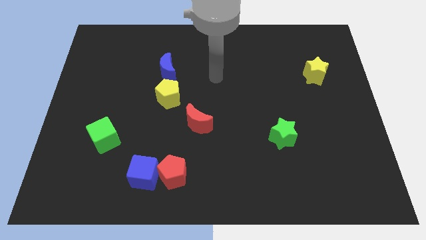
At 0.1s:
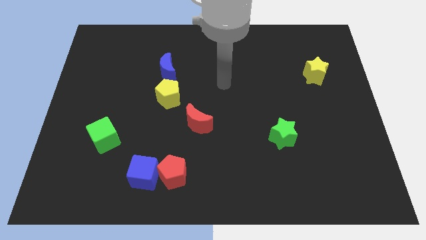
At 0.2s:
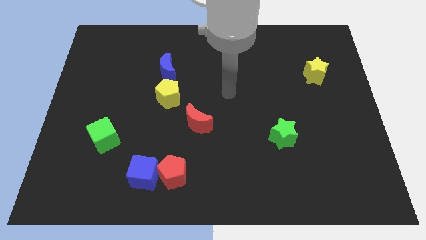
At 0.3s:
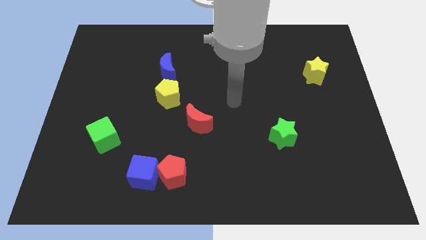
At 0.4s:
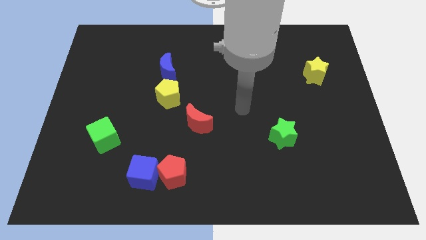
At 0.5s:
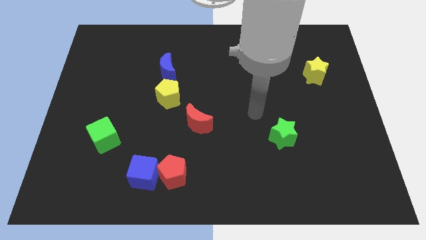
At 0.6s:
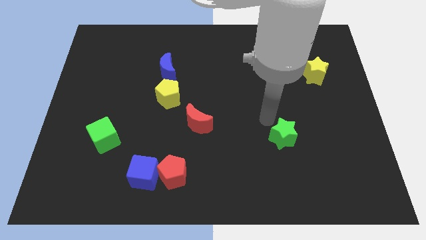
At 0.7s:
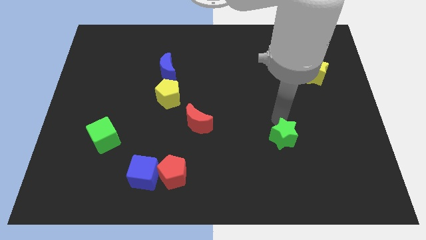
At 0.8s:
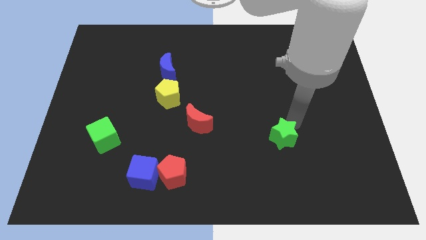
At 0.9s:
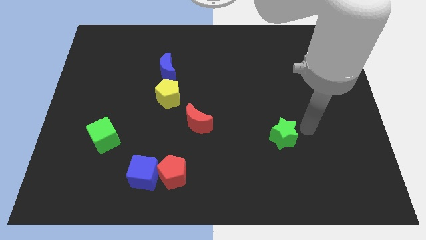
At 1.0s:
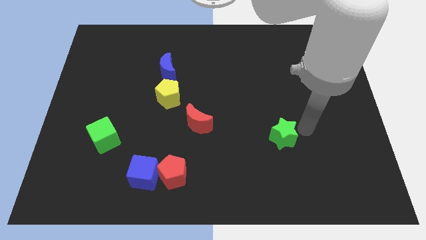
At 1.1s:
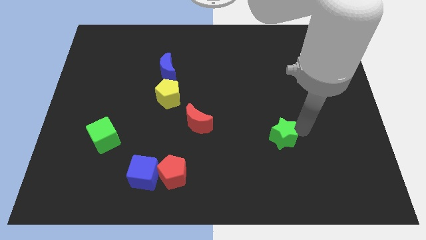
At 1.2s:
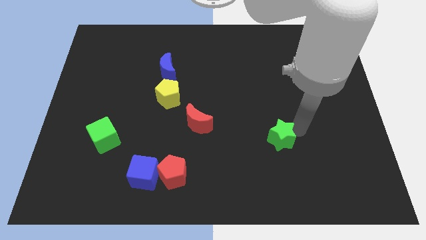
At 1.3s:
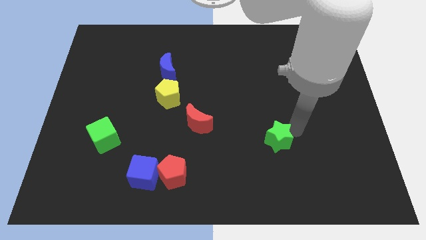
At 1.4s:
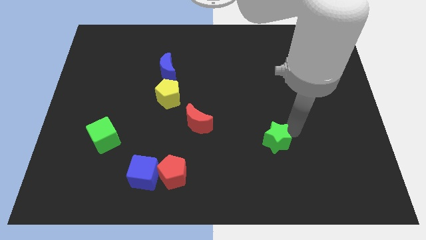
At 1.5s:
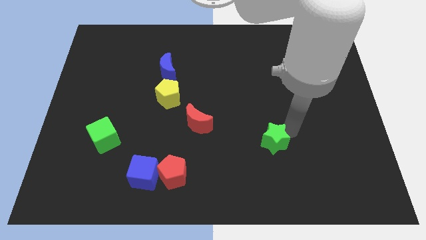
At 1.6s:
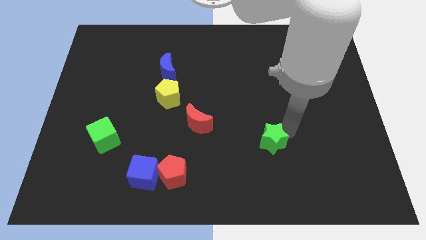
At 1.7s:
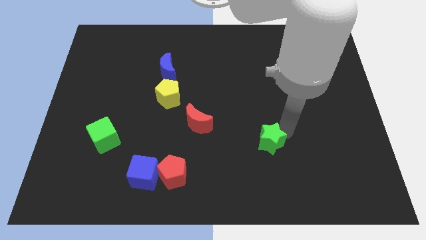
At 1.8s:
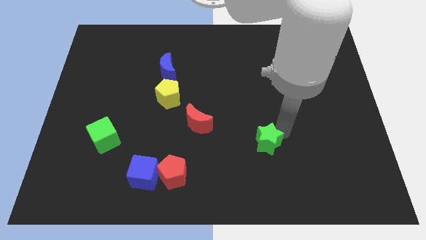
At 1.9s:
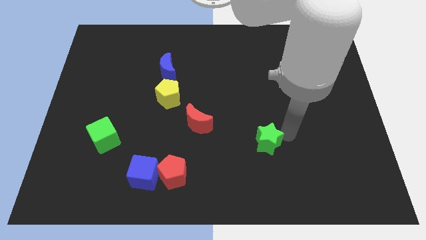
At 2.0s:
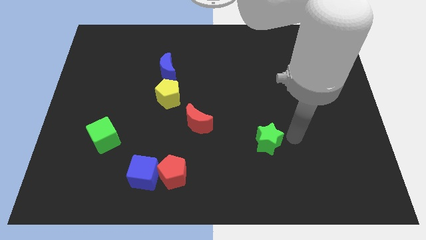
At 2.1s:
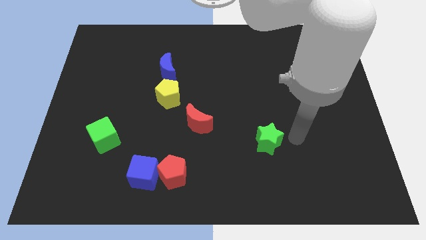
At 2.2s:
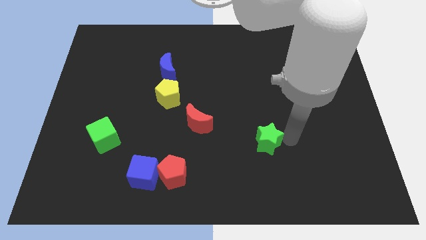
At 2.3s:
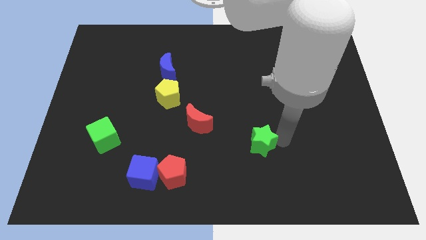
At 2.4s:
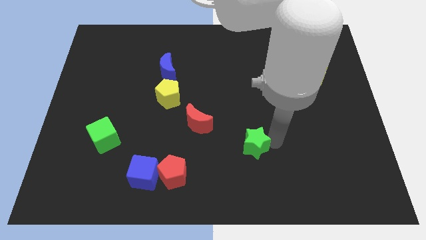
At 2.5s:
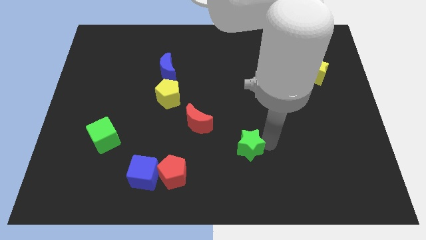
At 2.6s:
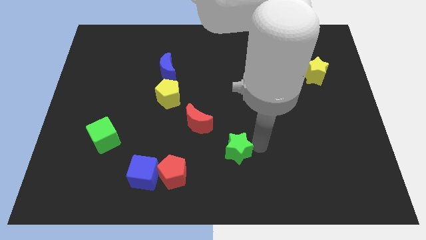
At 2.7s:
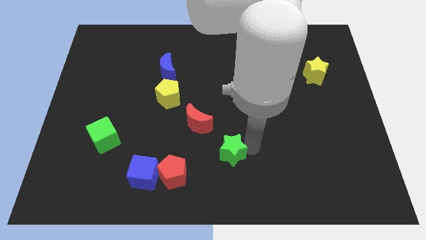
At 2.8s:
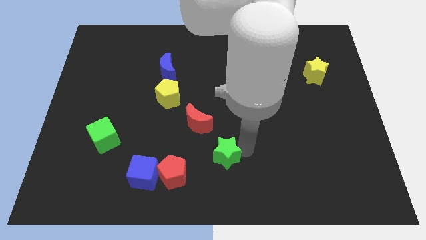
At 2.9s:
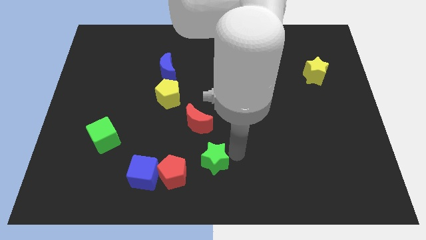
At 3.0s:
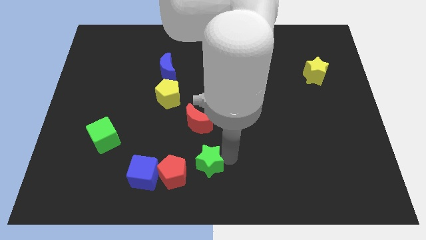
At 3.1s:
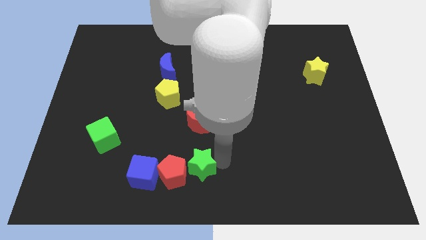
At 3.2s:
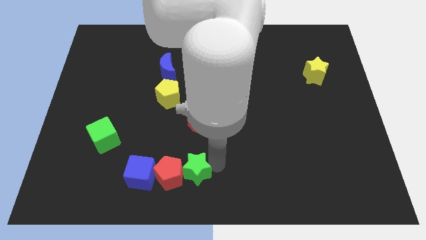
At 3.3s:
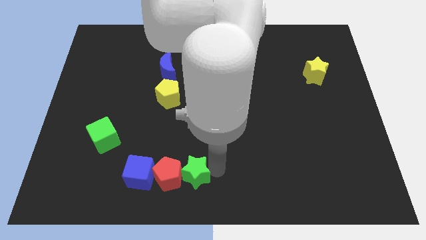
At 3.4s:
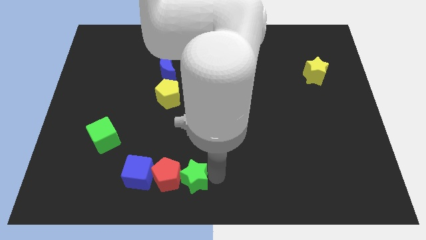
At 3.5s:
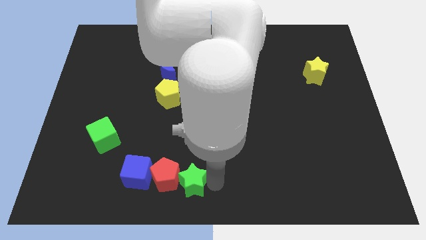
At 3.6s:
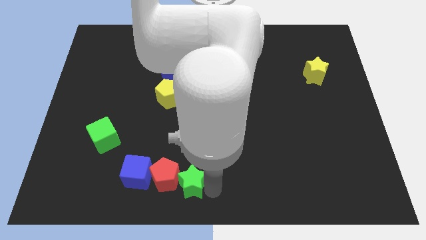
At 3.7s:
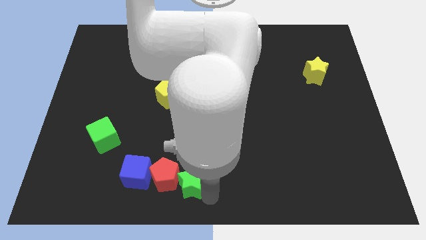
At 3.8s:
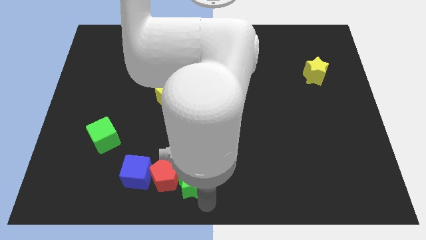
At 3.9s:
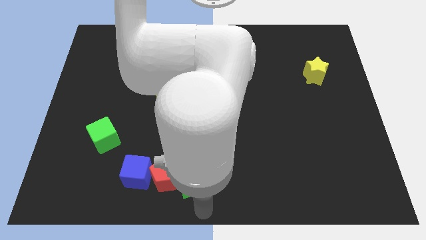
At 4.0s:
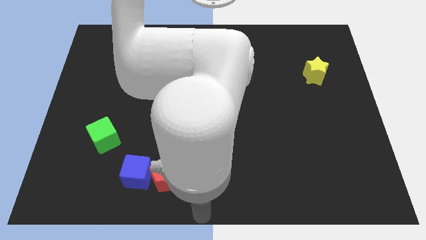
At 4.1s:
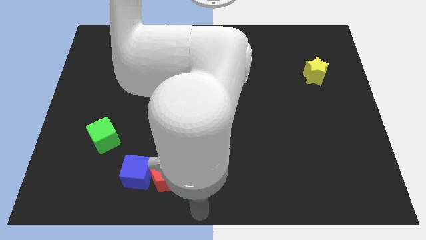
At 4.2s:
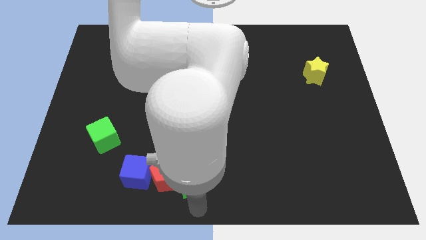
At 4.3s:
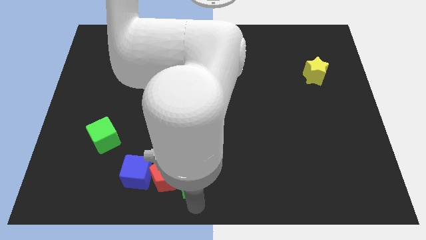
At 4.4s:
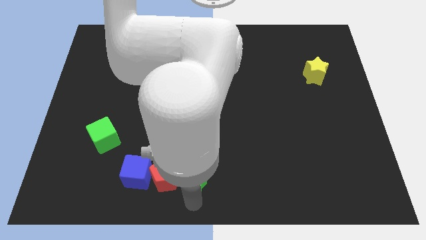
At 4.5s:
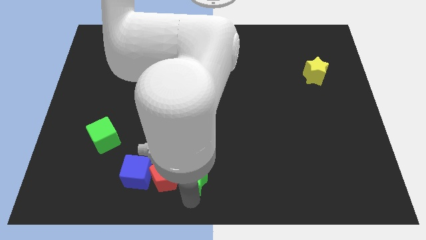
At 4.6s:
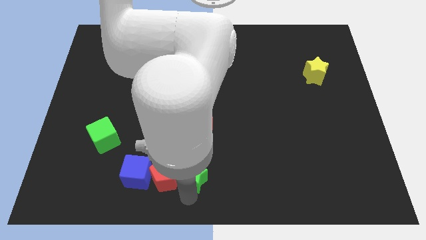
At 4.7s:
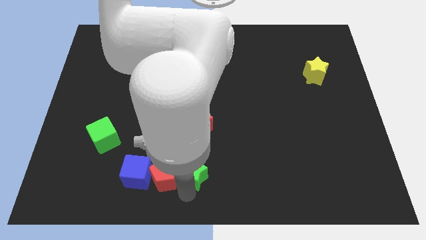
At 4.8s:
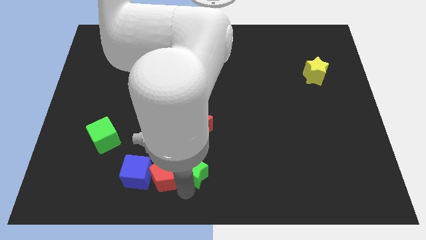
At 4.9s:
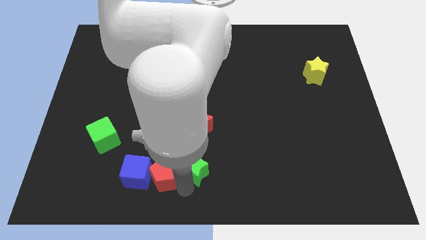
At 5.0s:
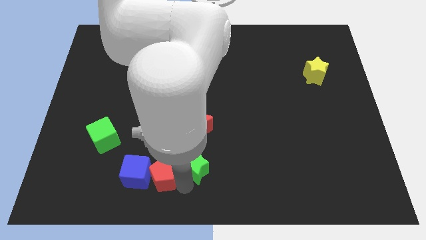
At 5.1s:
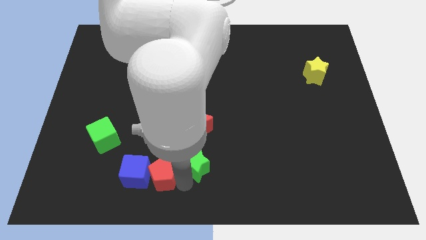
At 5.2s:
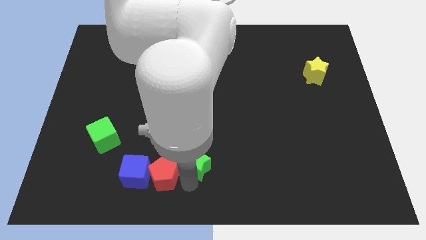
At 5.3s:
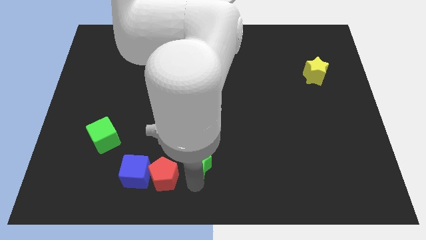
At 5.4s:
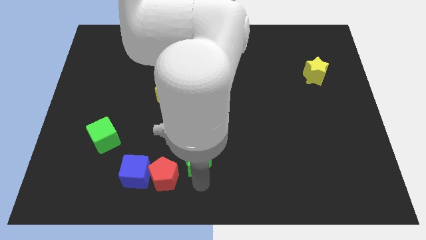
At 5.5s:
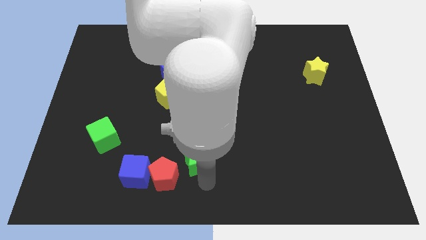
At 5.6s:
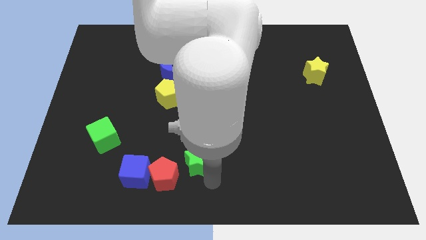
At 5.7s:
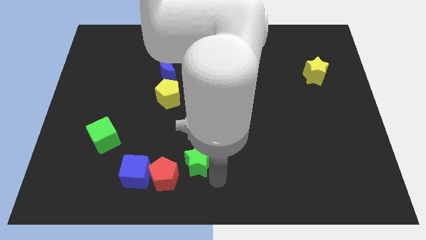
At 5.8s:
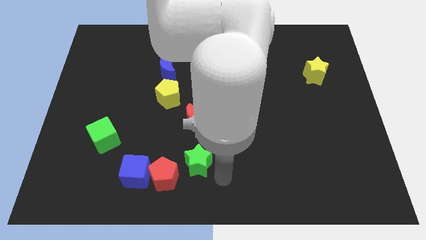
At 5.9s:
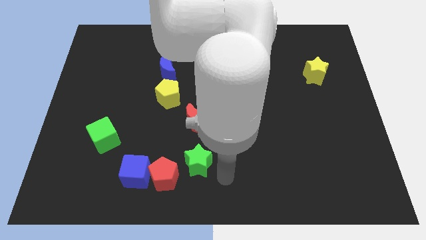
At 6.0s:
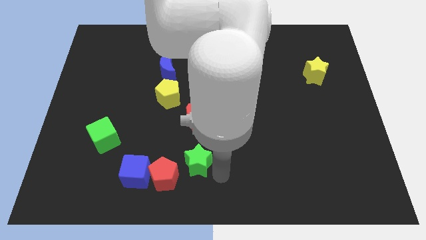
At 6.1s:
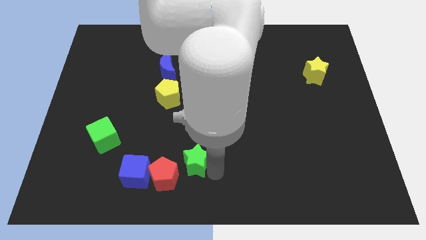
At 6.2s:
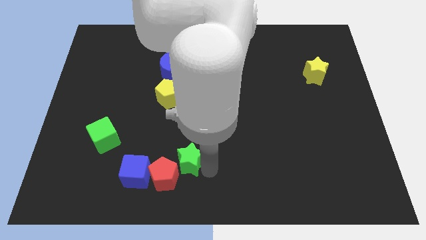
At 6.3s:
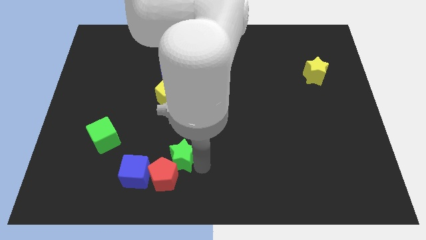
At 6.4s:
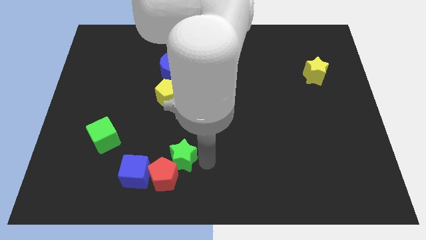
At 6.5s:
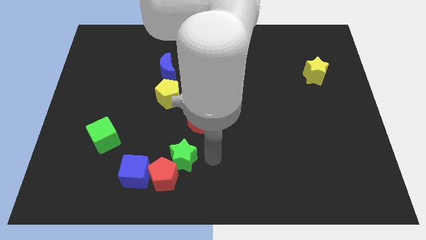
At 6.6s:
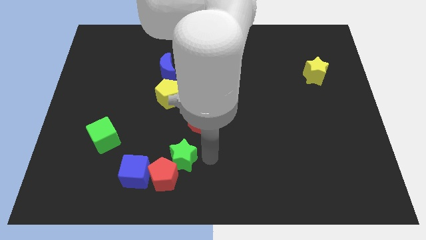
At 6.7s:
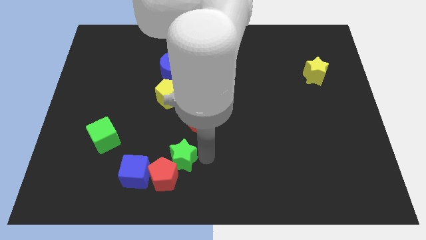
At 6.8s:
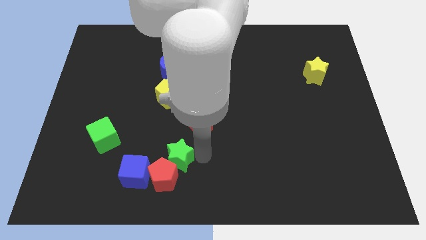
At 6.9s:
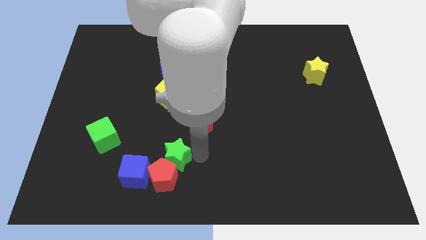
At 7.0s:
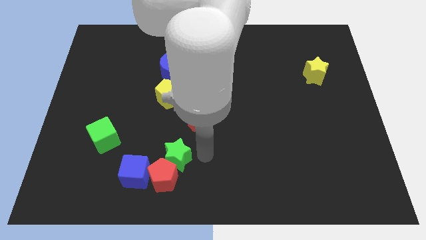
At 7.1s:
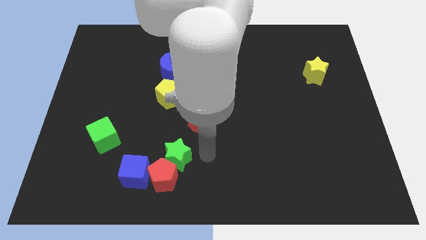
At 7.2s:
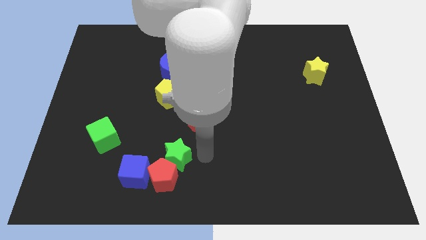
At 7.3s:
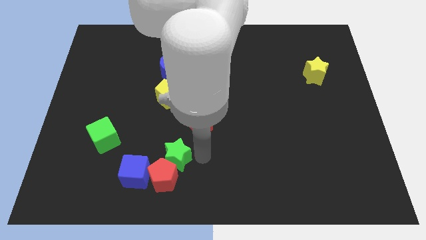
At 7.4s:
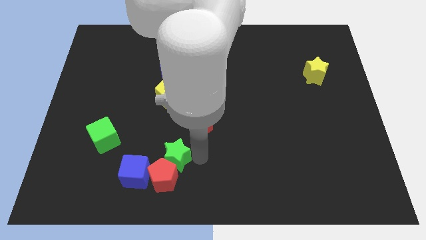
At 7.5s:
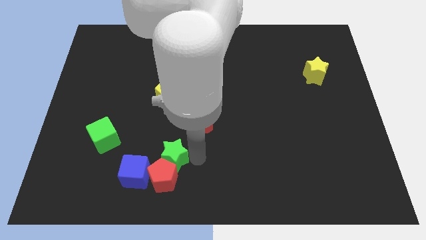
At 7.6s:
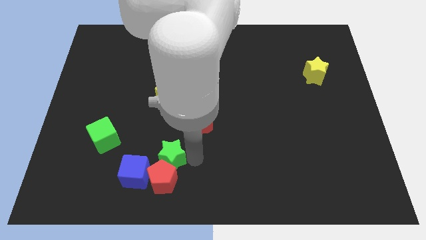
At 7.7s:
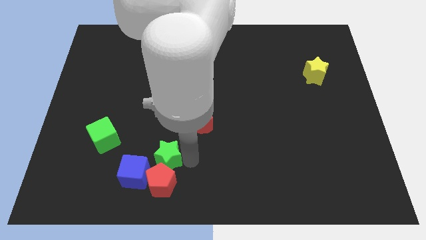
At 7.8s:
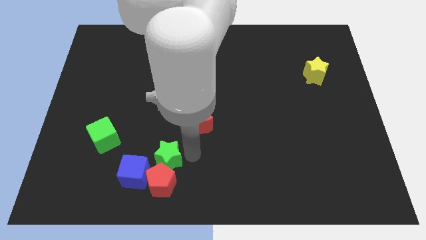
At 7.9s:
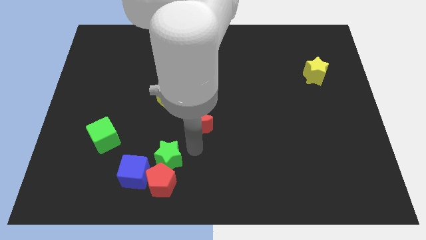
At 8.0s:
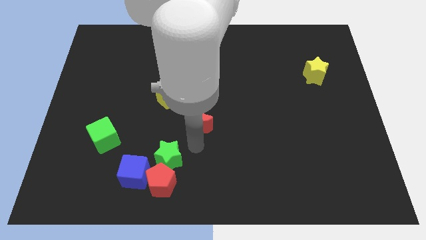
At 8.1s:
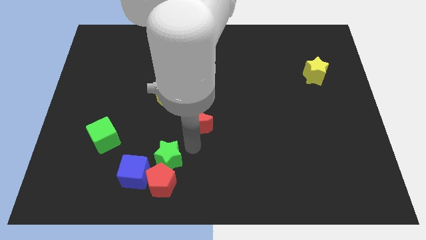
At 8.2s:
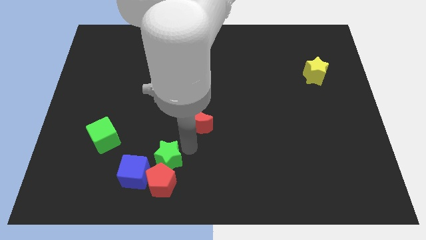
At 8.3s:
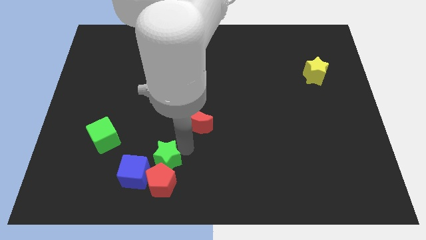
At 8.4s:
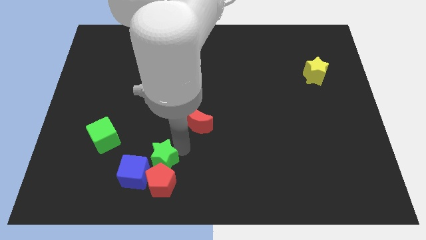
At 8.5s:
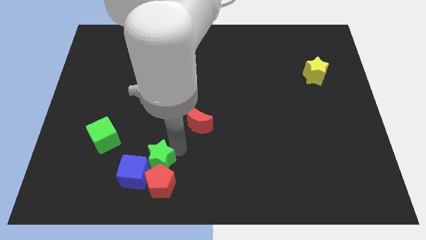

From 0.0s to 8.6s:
slide the green star towards the blue cube
